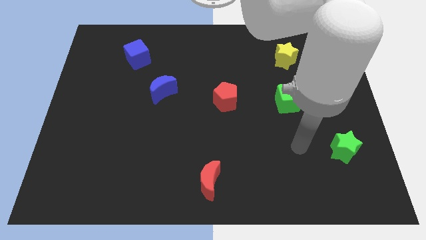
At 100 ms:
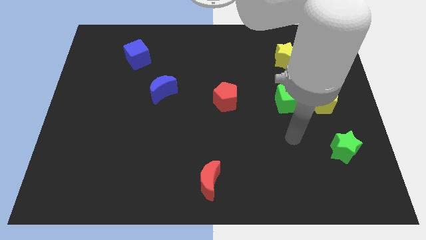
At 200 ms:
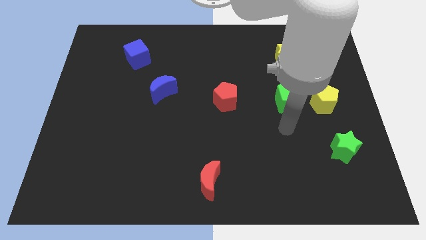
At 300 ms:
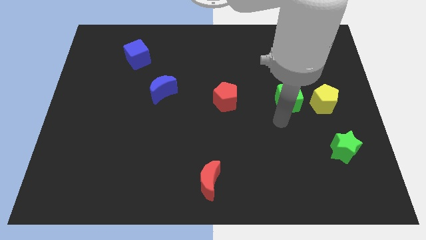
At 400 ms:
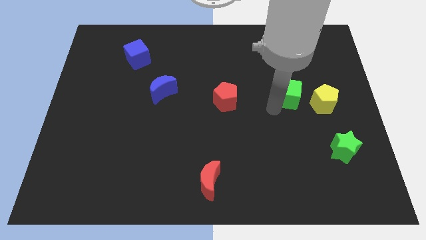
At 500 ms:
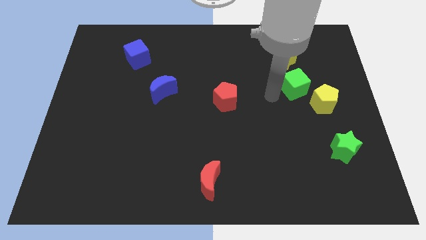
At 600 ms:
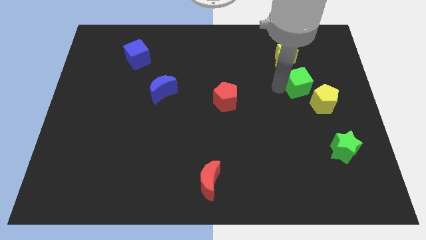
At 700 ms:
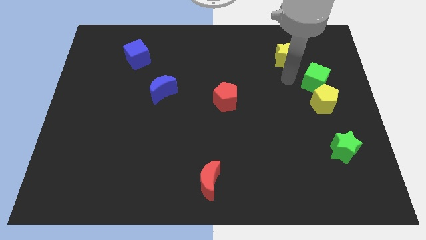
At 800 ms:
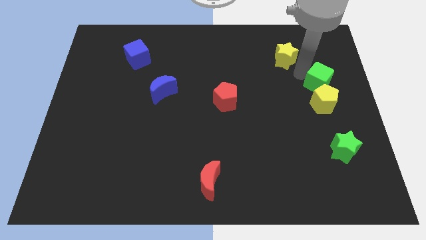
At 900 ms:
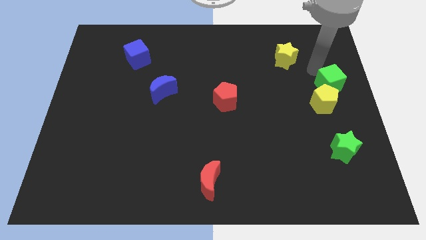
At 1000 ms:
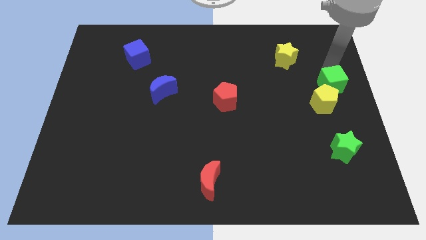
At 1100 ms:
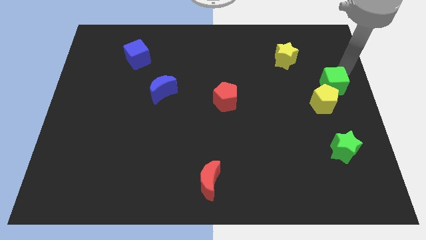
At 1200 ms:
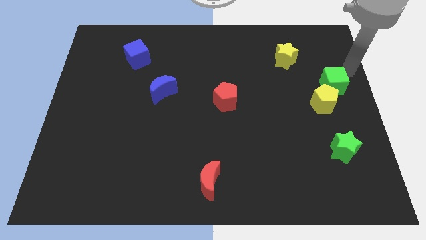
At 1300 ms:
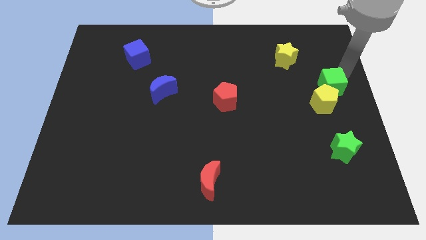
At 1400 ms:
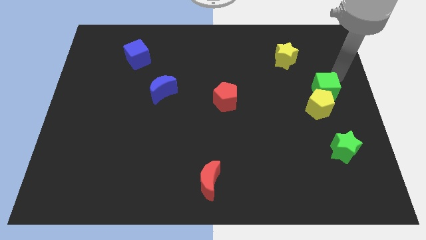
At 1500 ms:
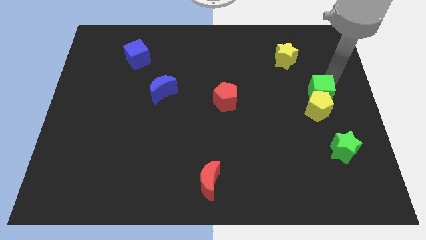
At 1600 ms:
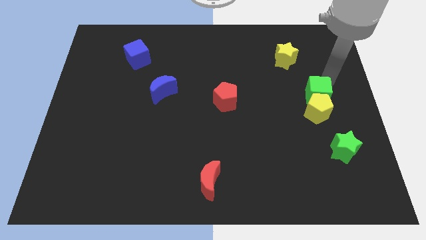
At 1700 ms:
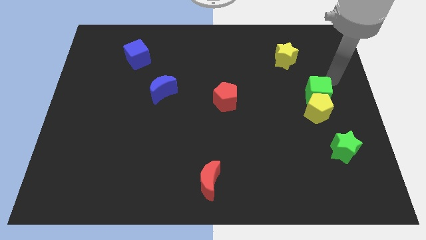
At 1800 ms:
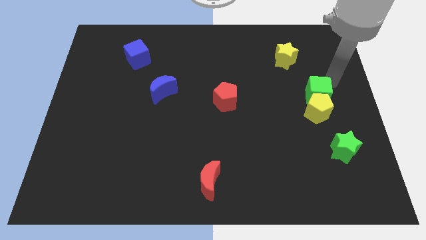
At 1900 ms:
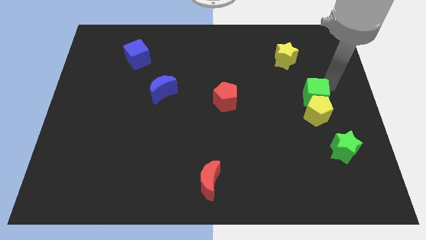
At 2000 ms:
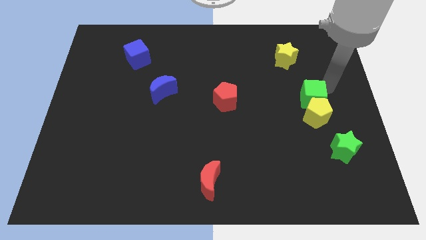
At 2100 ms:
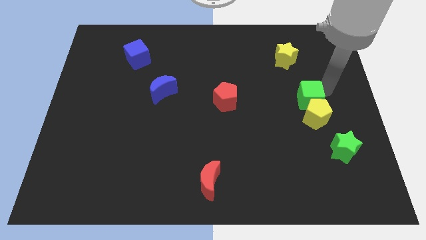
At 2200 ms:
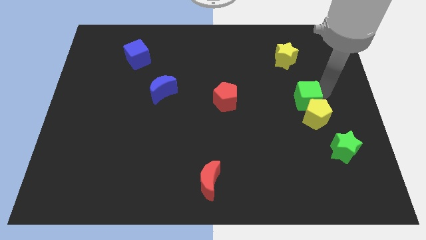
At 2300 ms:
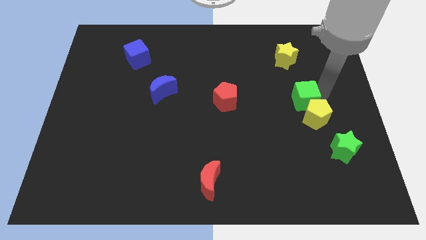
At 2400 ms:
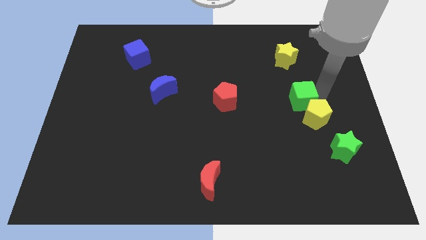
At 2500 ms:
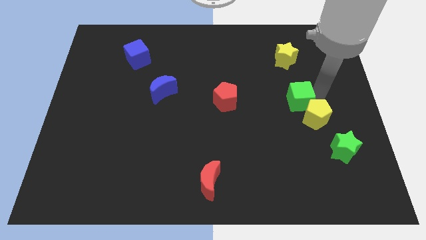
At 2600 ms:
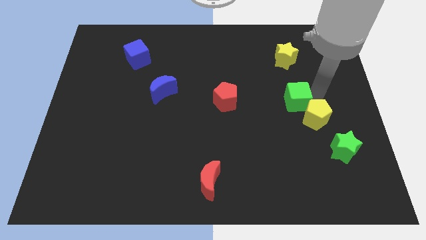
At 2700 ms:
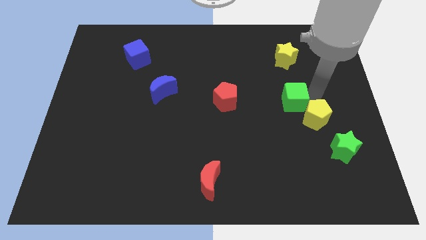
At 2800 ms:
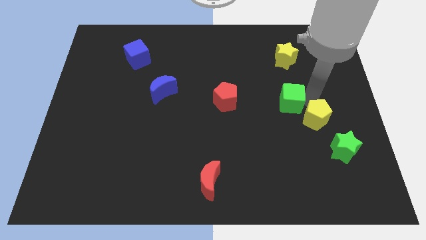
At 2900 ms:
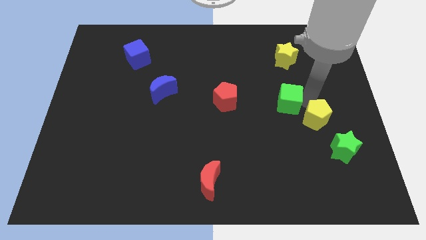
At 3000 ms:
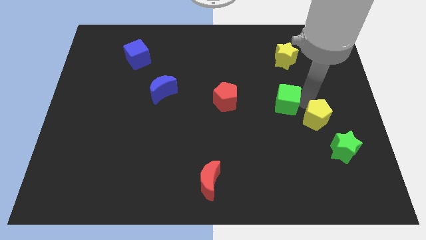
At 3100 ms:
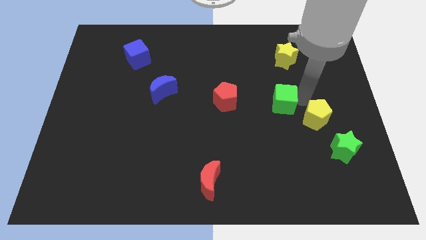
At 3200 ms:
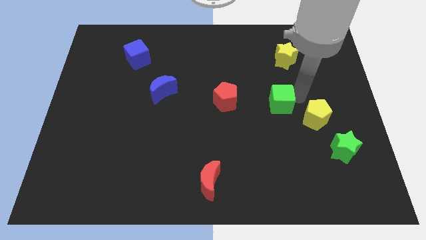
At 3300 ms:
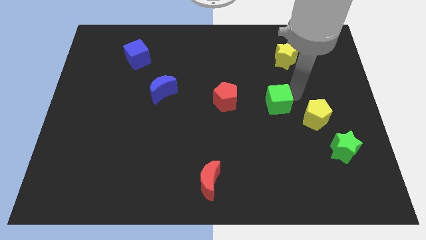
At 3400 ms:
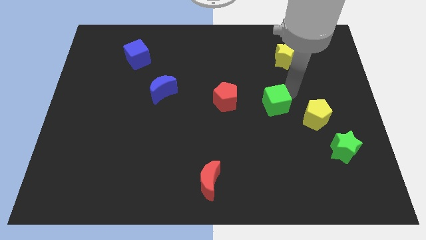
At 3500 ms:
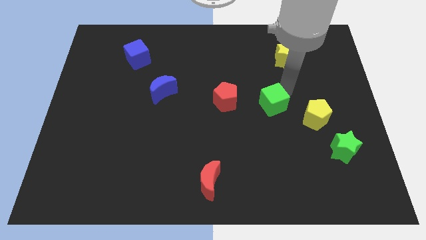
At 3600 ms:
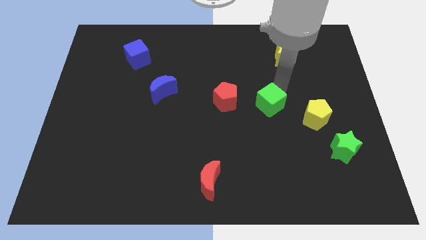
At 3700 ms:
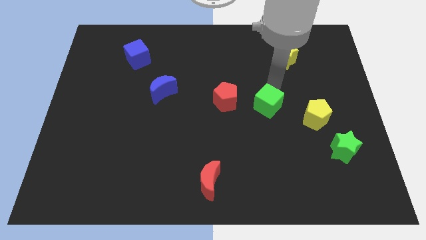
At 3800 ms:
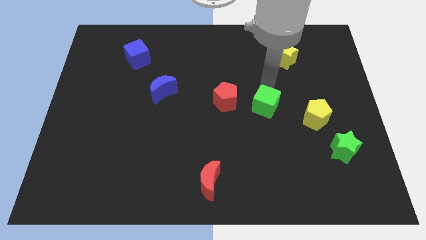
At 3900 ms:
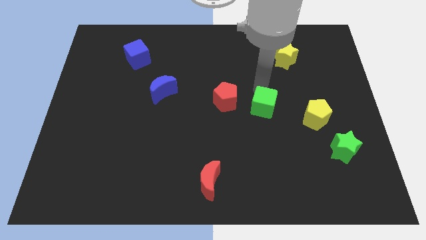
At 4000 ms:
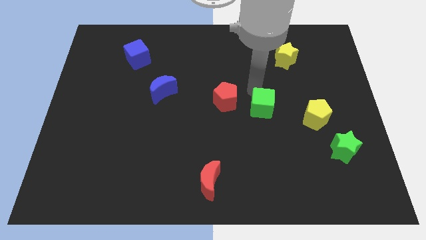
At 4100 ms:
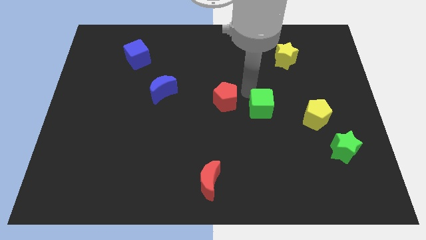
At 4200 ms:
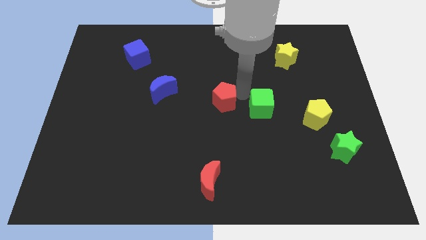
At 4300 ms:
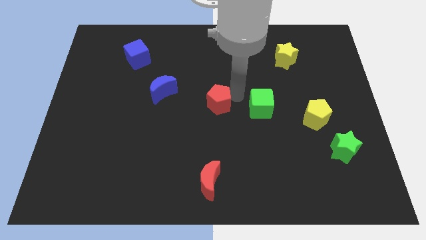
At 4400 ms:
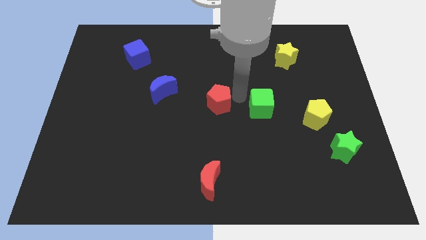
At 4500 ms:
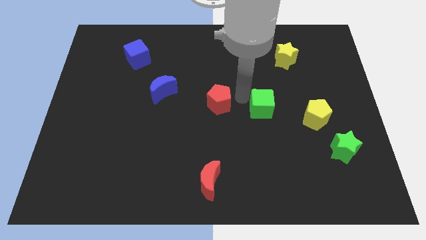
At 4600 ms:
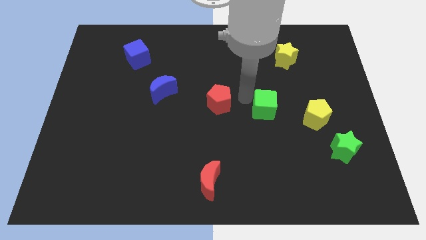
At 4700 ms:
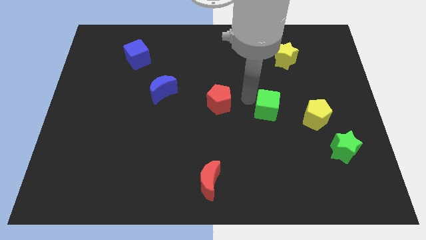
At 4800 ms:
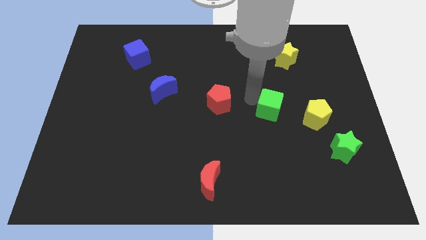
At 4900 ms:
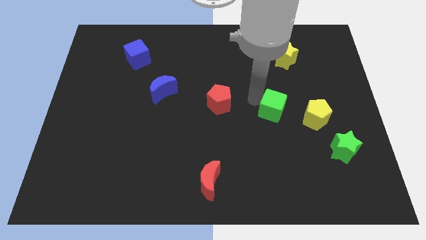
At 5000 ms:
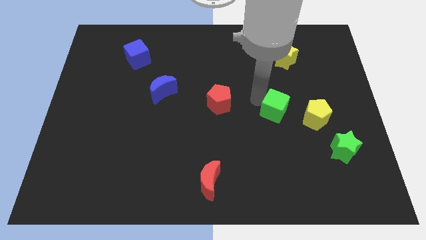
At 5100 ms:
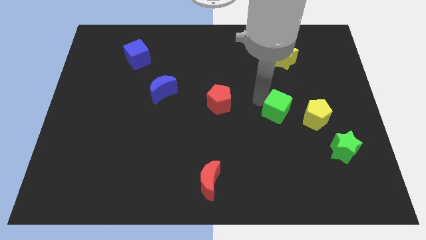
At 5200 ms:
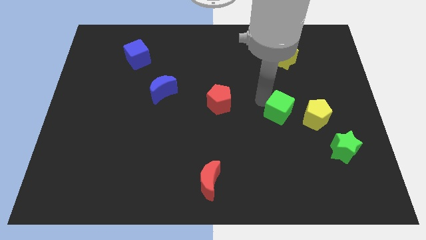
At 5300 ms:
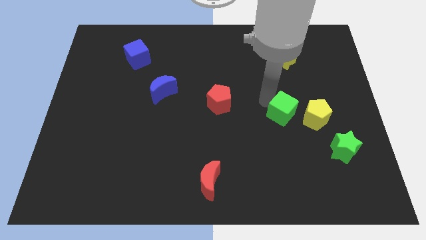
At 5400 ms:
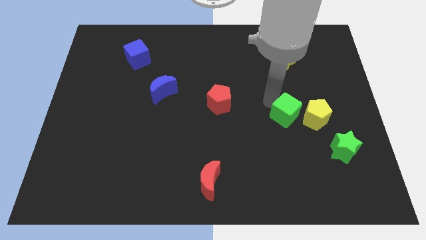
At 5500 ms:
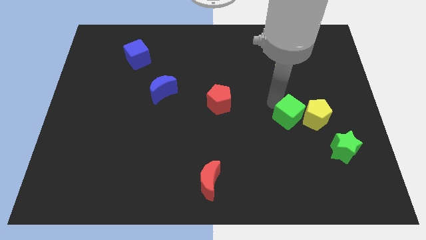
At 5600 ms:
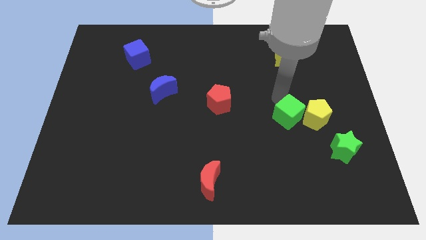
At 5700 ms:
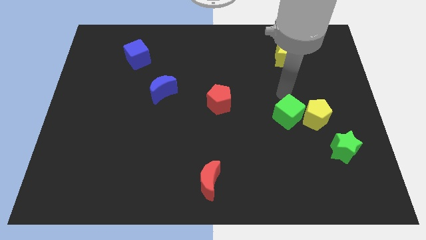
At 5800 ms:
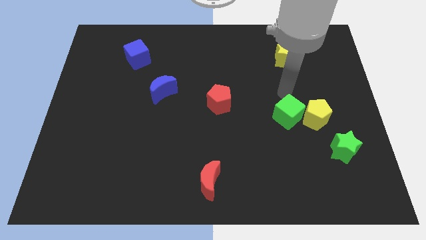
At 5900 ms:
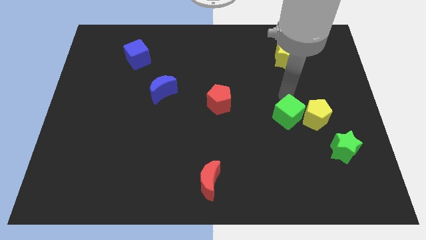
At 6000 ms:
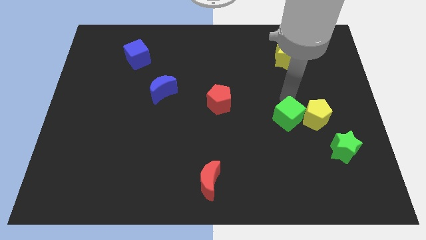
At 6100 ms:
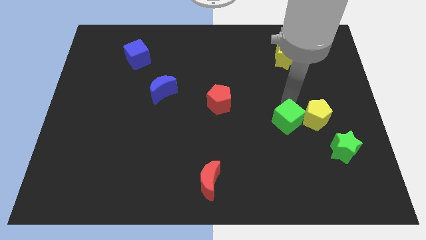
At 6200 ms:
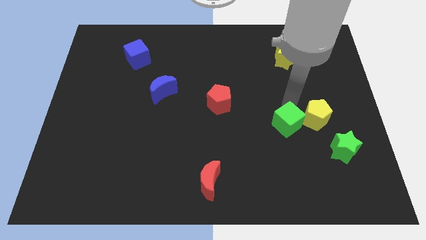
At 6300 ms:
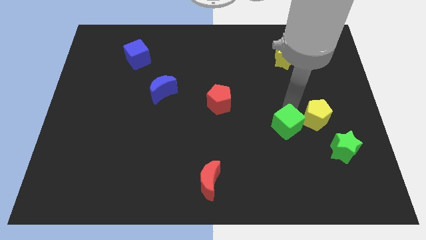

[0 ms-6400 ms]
slide the green cube a little bit downwards

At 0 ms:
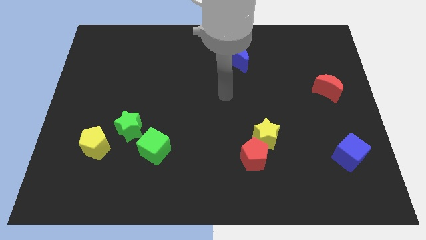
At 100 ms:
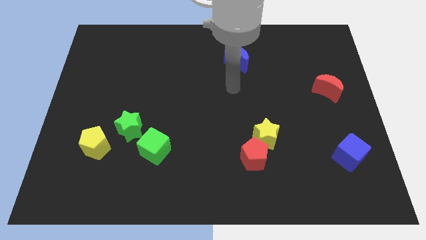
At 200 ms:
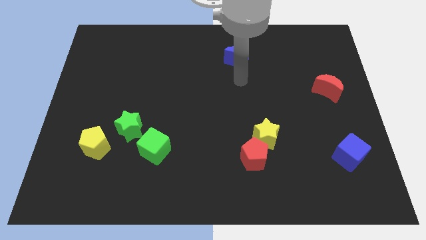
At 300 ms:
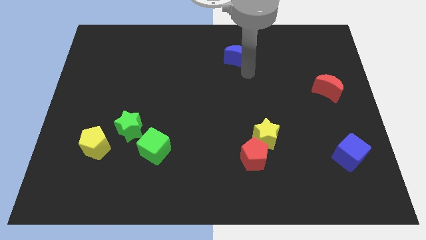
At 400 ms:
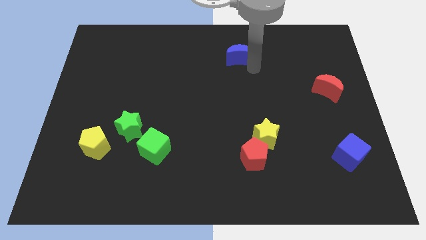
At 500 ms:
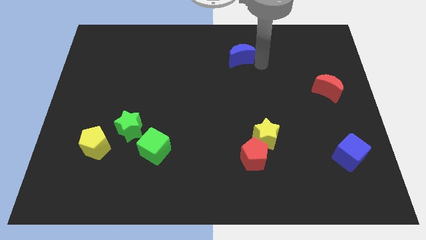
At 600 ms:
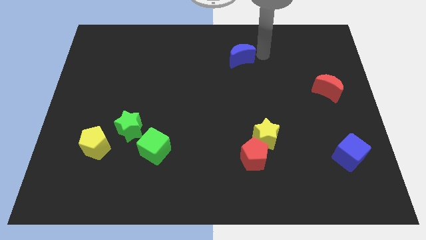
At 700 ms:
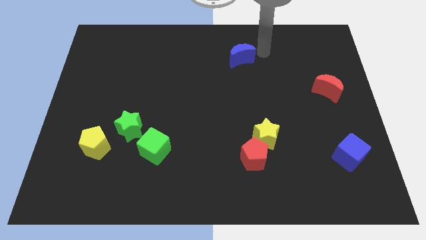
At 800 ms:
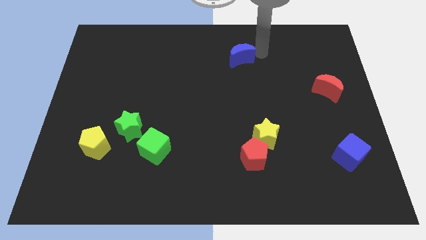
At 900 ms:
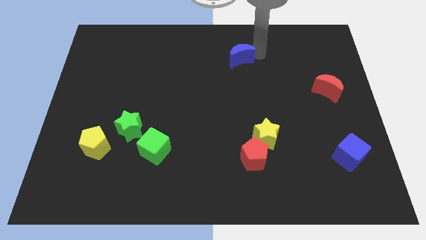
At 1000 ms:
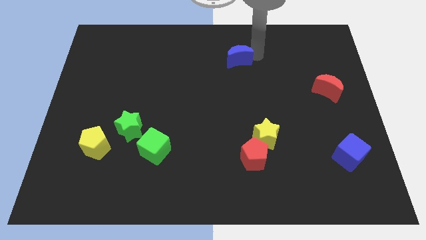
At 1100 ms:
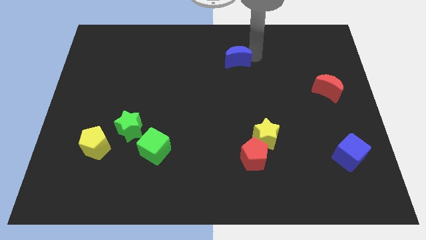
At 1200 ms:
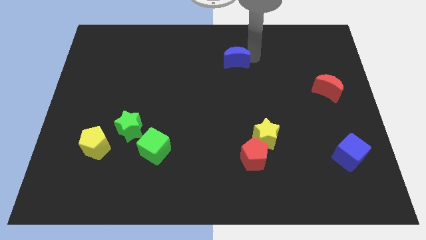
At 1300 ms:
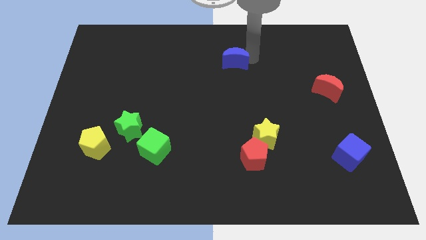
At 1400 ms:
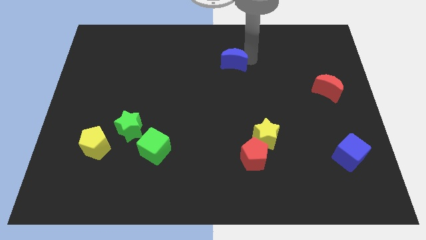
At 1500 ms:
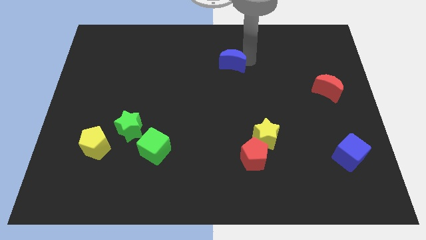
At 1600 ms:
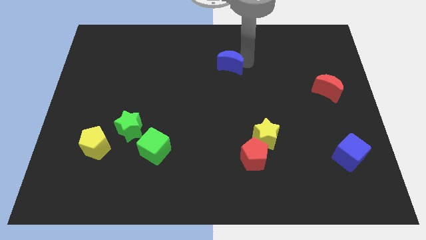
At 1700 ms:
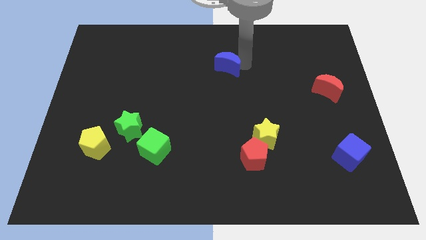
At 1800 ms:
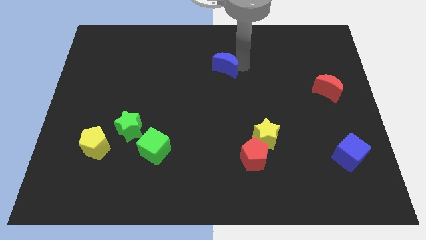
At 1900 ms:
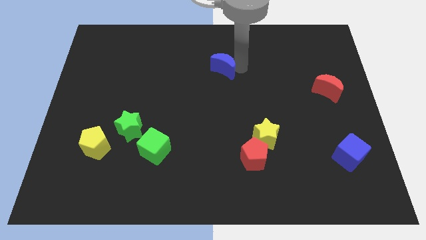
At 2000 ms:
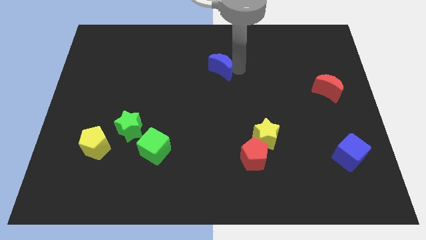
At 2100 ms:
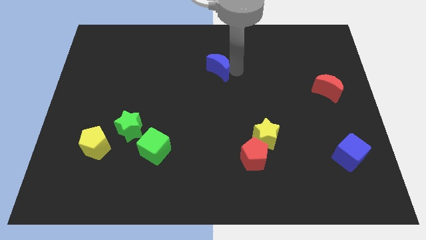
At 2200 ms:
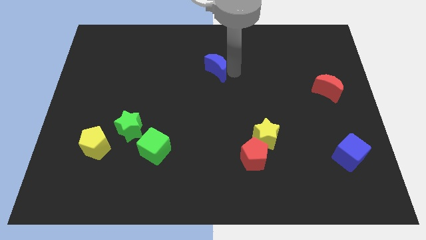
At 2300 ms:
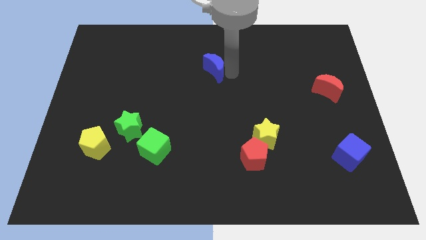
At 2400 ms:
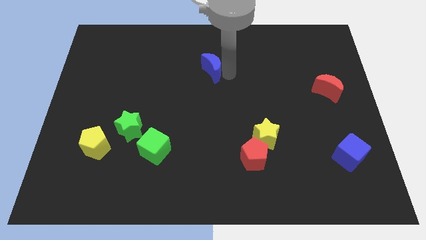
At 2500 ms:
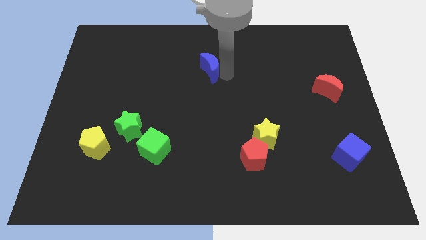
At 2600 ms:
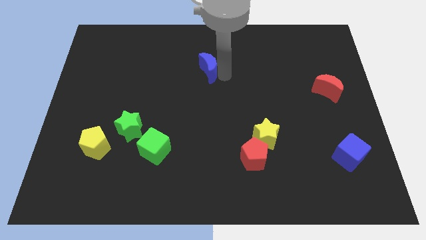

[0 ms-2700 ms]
push the blue moon to the left somewhat
